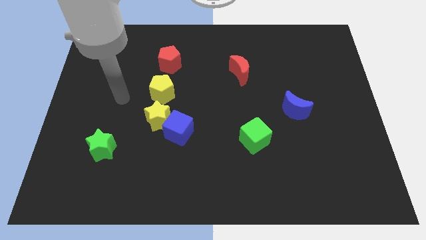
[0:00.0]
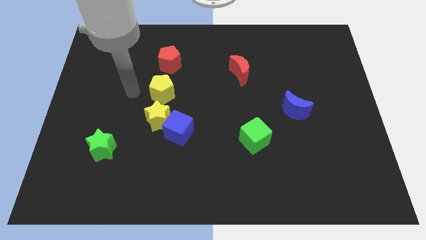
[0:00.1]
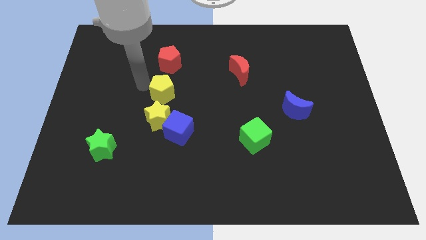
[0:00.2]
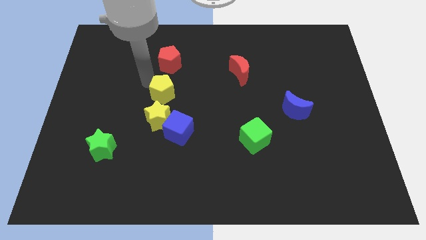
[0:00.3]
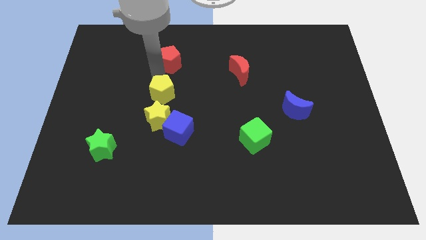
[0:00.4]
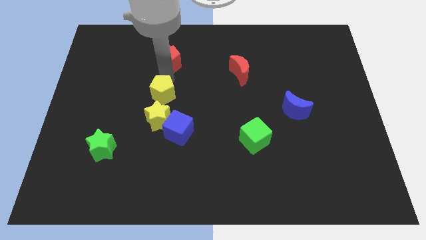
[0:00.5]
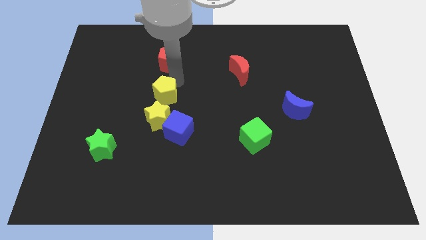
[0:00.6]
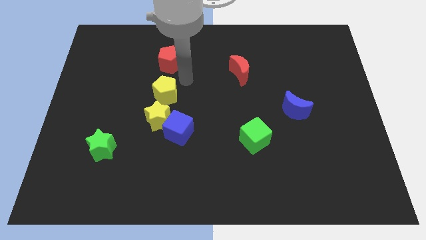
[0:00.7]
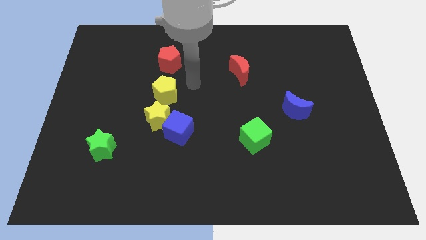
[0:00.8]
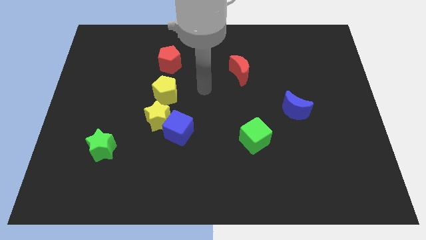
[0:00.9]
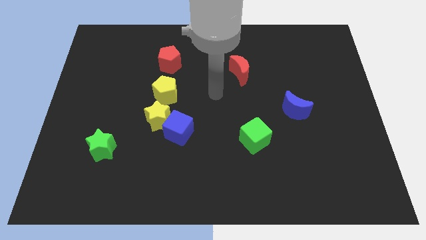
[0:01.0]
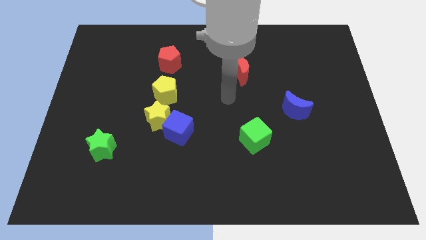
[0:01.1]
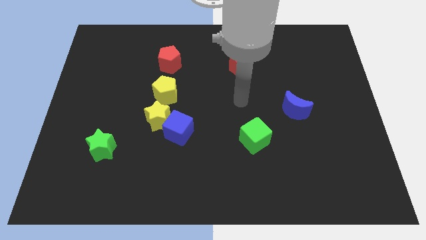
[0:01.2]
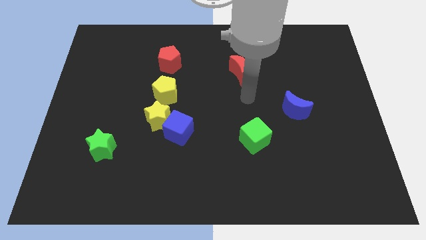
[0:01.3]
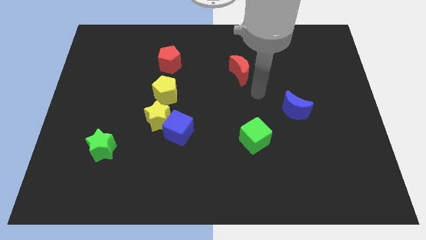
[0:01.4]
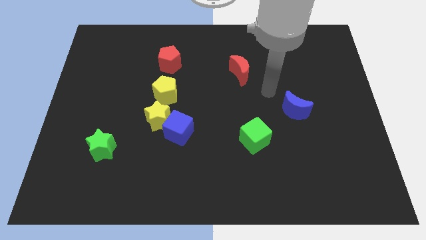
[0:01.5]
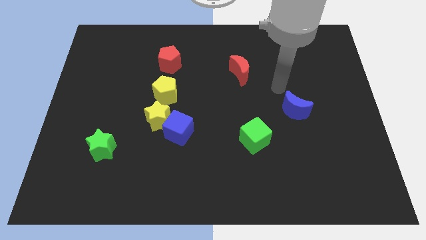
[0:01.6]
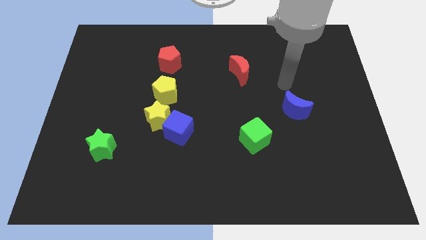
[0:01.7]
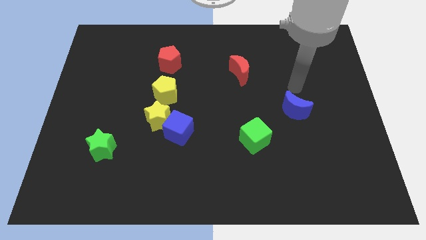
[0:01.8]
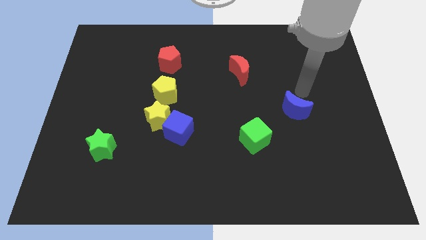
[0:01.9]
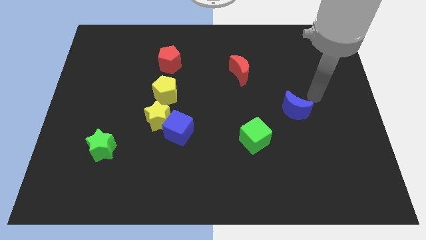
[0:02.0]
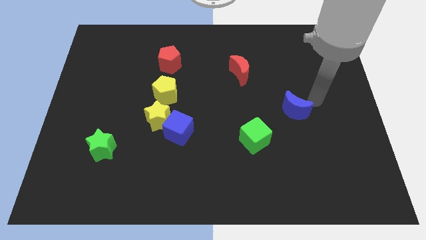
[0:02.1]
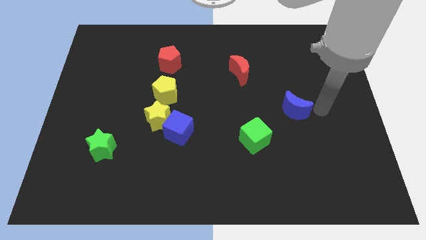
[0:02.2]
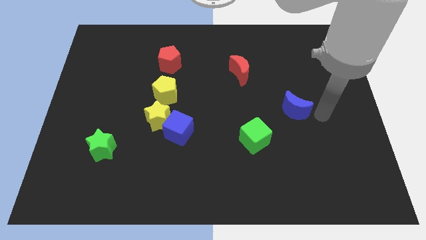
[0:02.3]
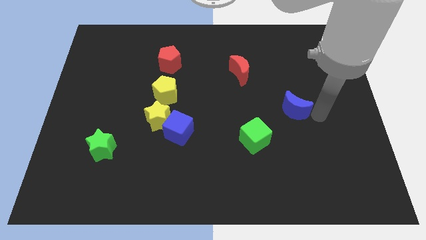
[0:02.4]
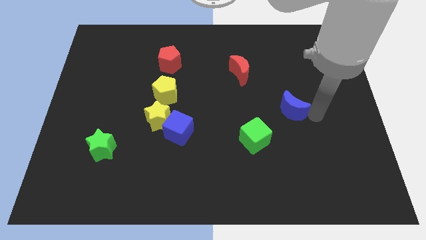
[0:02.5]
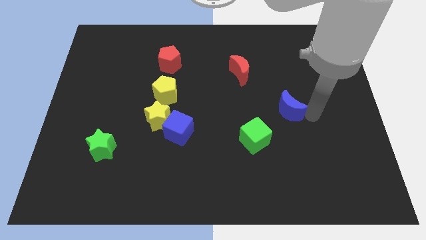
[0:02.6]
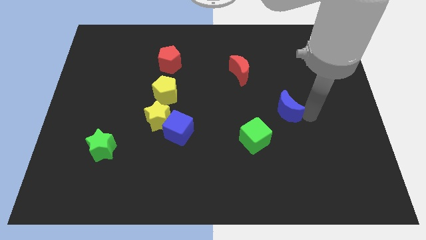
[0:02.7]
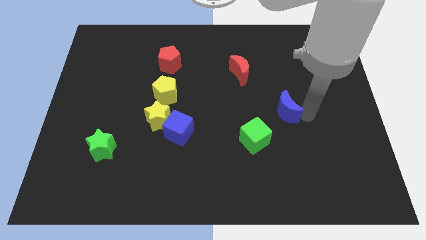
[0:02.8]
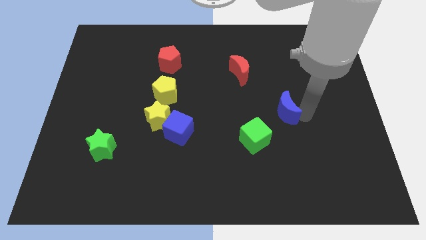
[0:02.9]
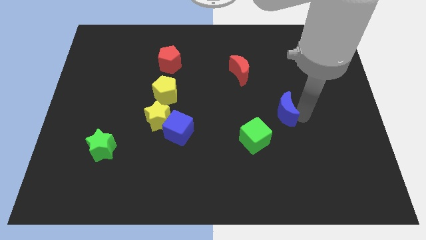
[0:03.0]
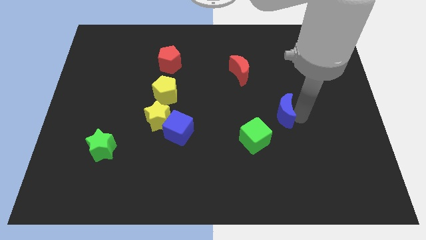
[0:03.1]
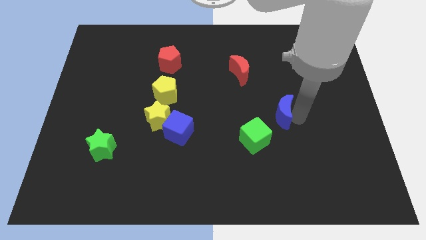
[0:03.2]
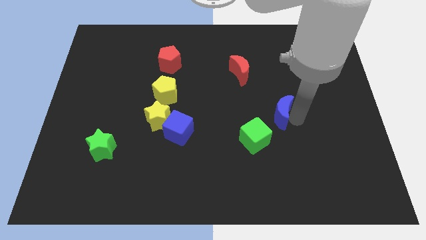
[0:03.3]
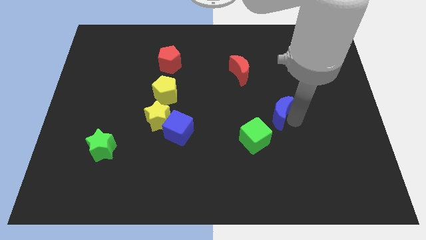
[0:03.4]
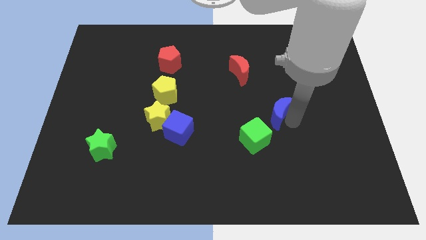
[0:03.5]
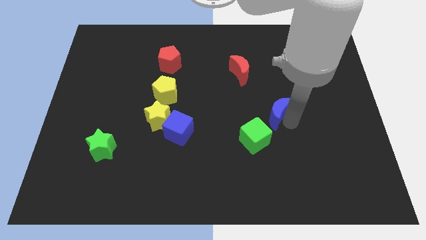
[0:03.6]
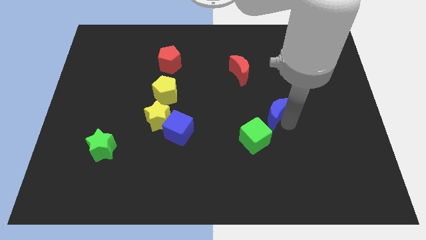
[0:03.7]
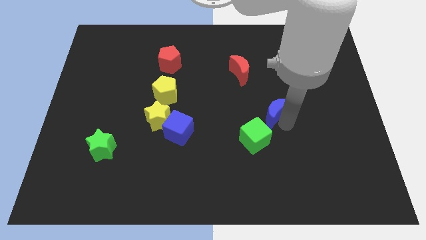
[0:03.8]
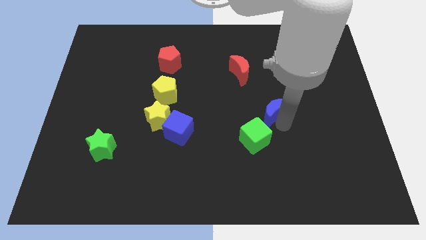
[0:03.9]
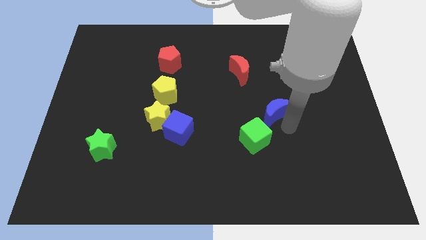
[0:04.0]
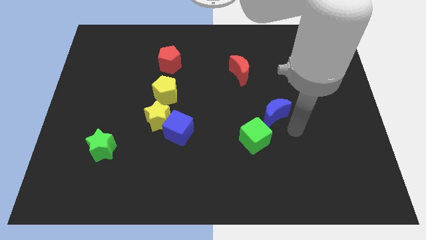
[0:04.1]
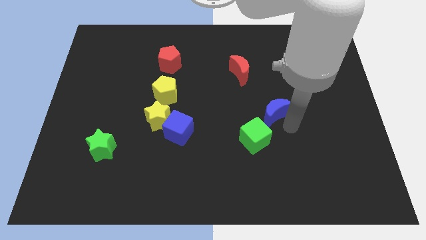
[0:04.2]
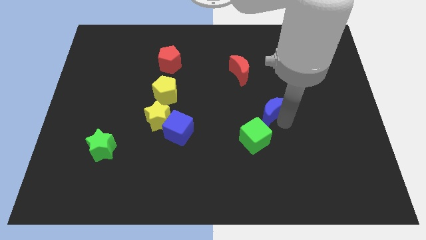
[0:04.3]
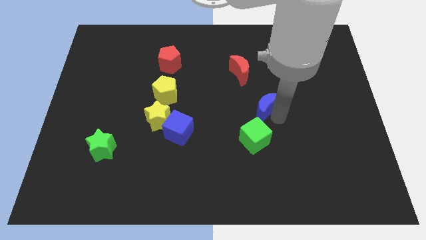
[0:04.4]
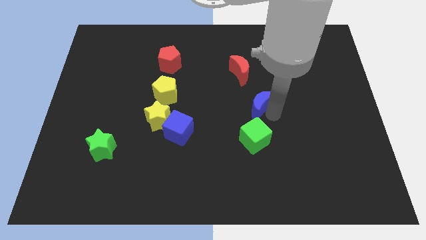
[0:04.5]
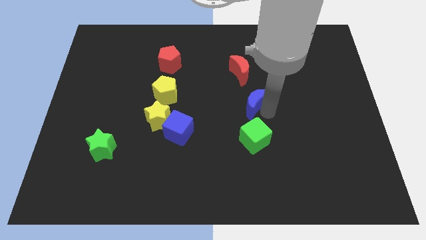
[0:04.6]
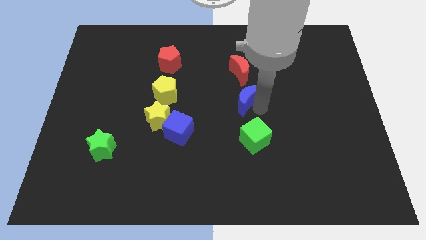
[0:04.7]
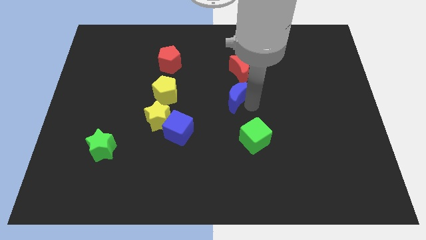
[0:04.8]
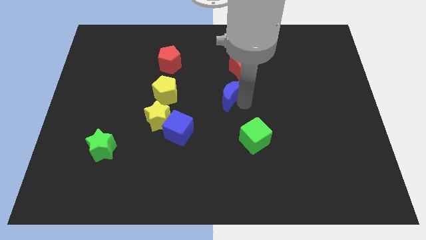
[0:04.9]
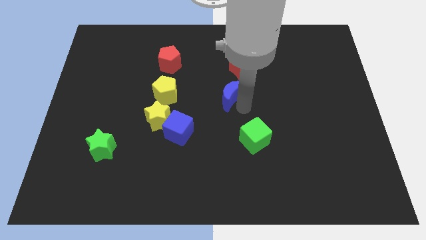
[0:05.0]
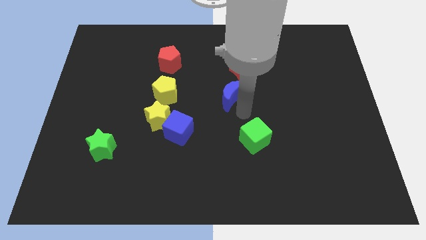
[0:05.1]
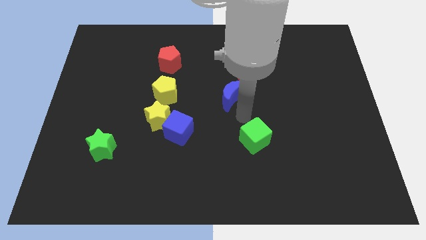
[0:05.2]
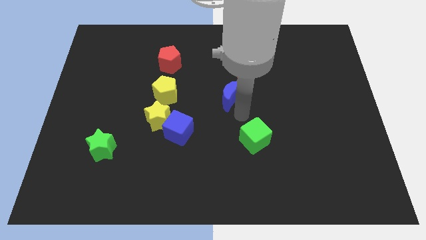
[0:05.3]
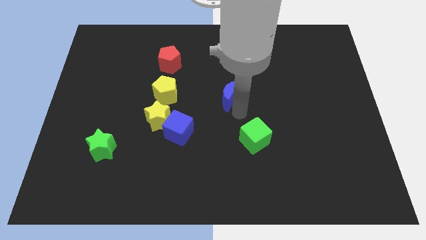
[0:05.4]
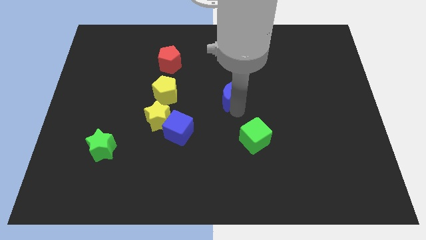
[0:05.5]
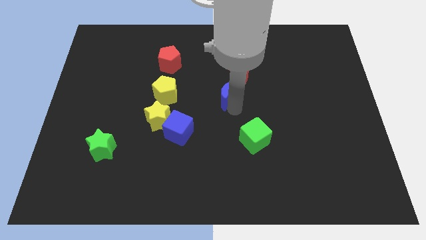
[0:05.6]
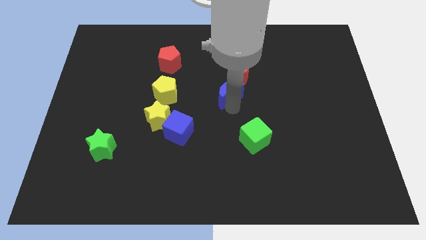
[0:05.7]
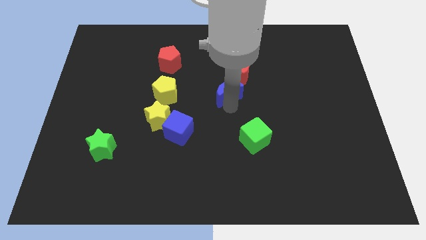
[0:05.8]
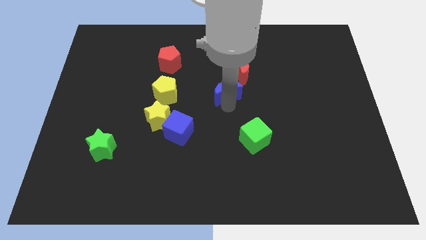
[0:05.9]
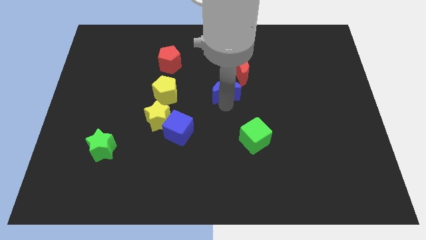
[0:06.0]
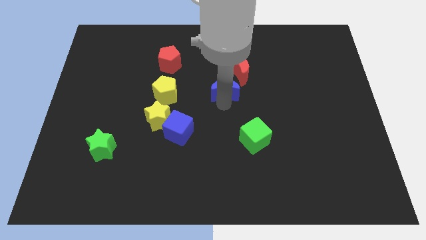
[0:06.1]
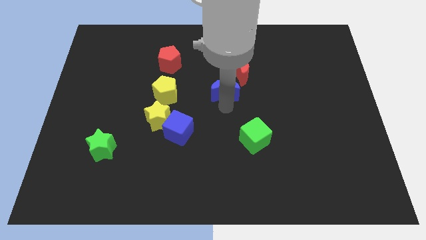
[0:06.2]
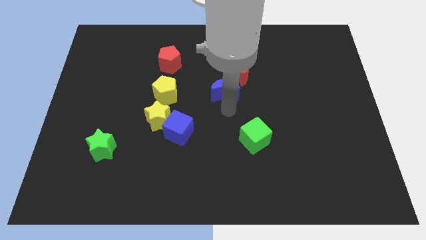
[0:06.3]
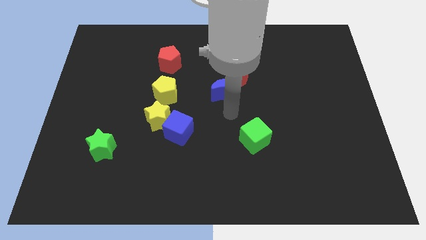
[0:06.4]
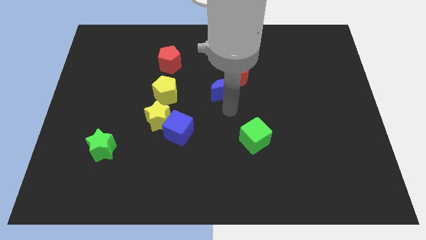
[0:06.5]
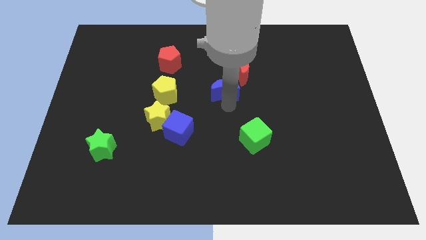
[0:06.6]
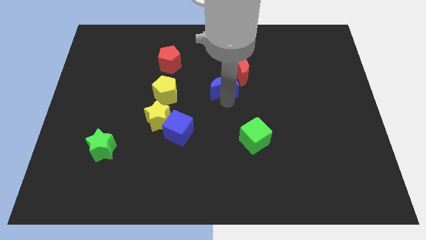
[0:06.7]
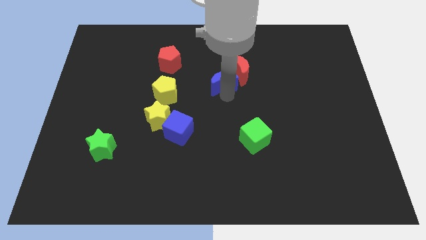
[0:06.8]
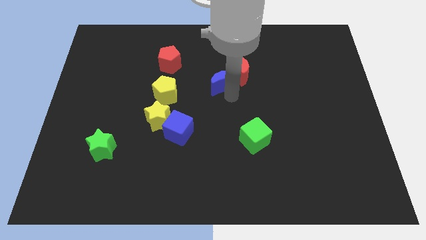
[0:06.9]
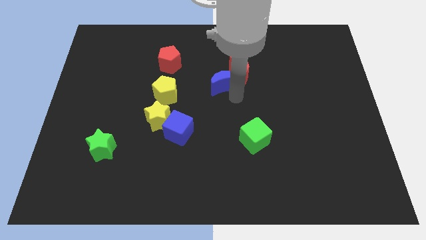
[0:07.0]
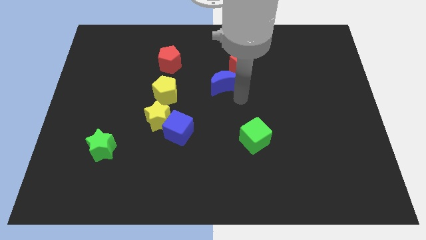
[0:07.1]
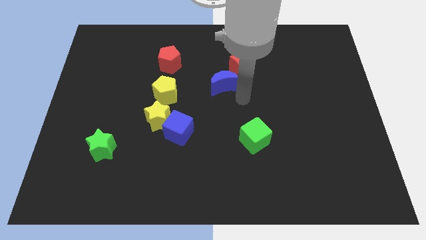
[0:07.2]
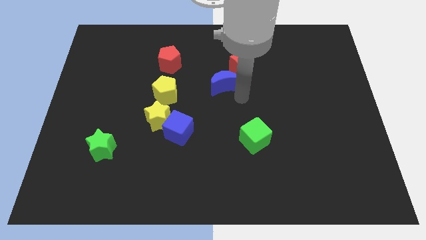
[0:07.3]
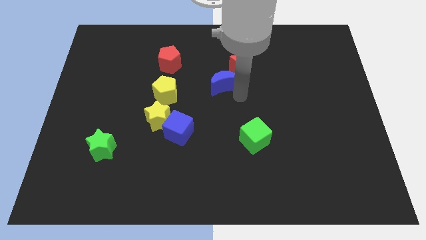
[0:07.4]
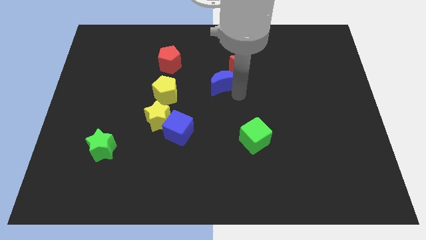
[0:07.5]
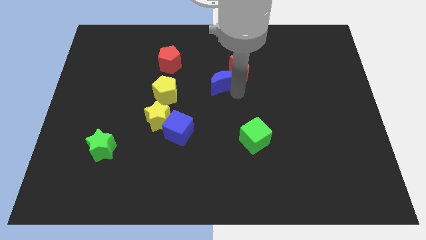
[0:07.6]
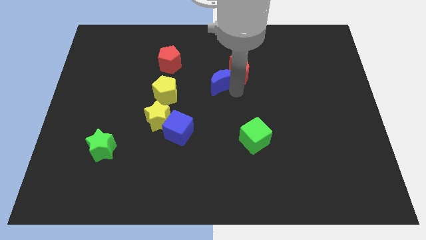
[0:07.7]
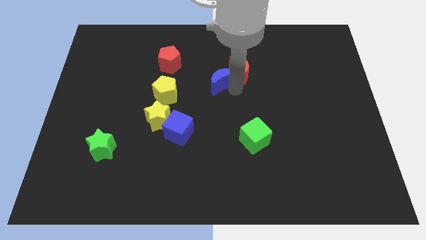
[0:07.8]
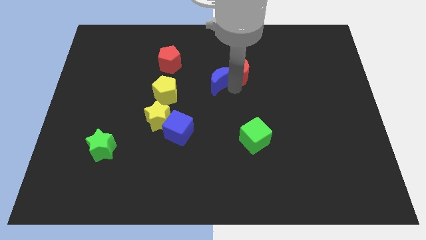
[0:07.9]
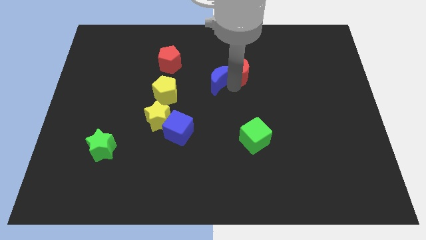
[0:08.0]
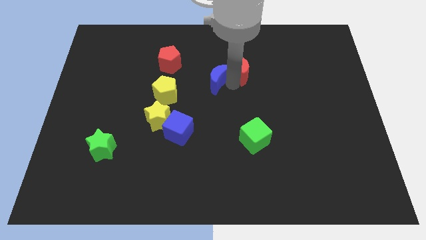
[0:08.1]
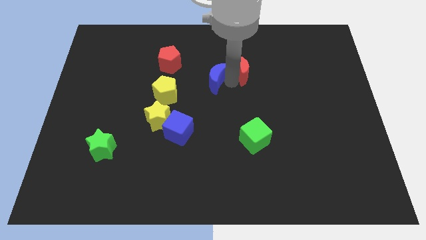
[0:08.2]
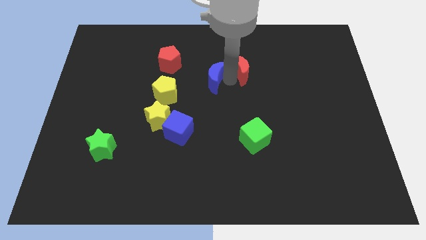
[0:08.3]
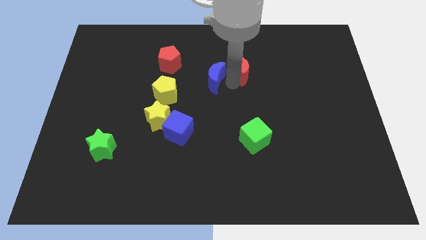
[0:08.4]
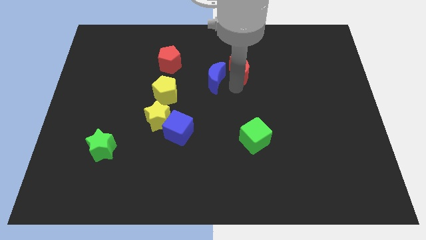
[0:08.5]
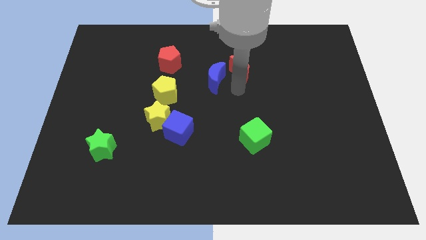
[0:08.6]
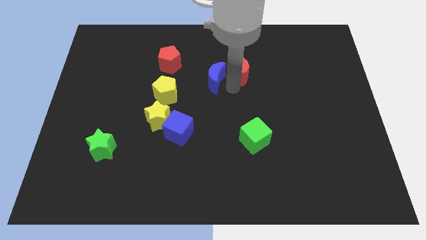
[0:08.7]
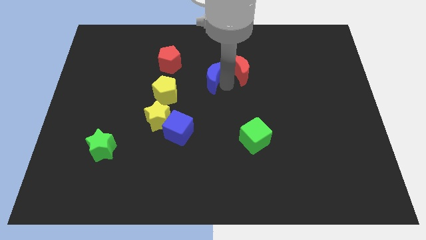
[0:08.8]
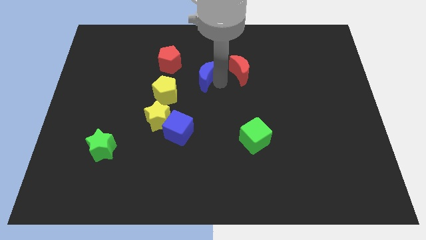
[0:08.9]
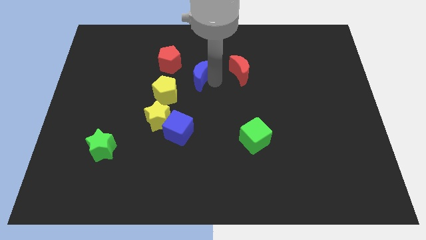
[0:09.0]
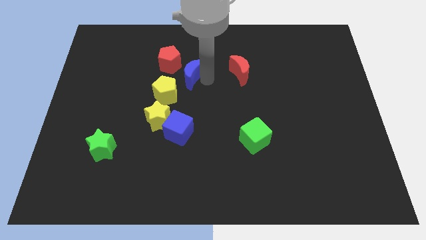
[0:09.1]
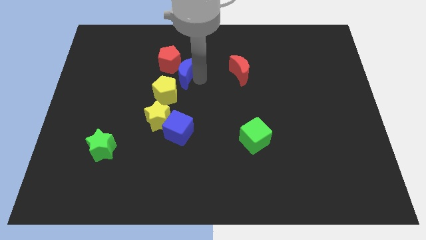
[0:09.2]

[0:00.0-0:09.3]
put the blue moon to the red pentagon
